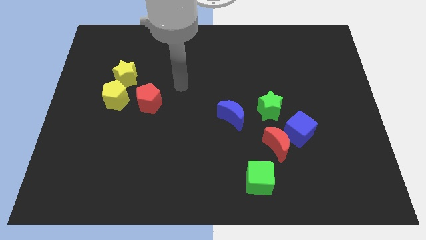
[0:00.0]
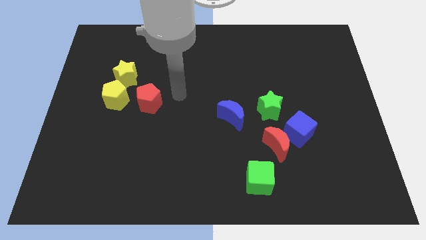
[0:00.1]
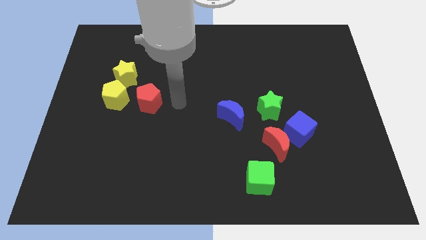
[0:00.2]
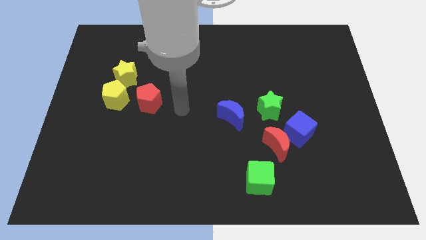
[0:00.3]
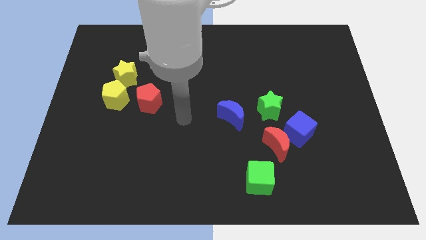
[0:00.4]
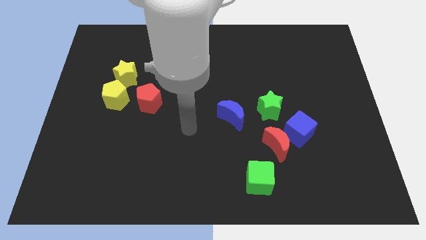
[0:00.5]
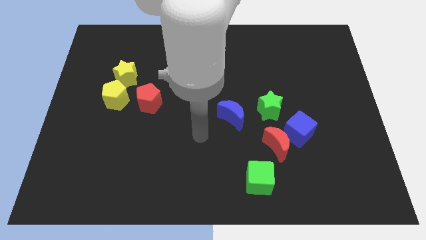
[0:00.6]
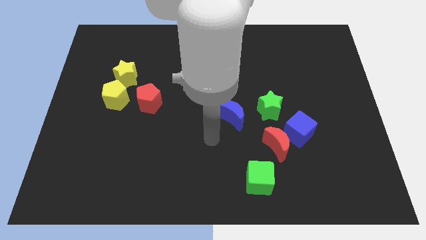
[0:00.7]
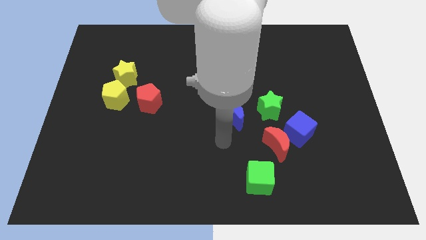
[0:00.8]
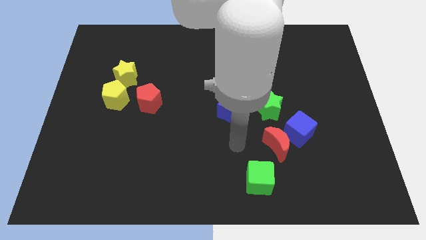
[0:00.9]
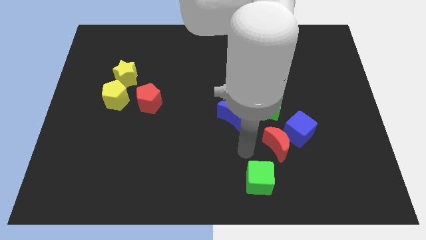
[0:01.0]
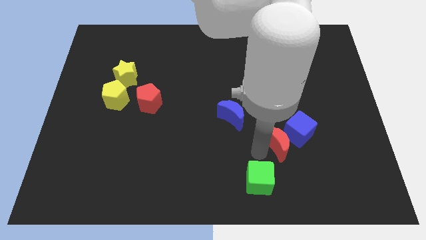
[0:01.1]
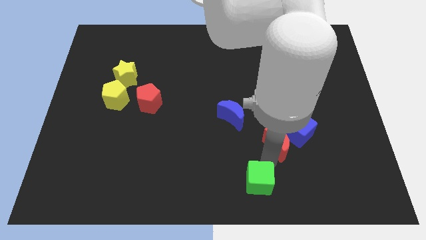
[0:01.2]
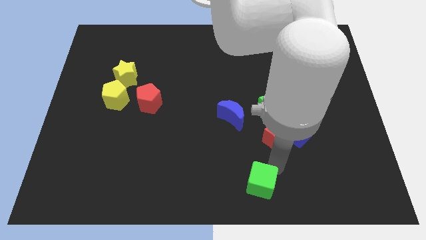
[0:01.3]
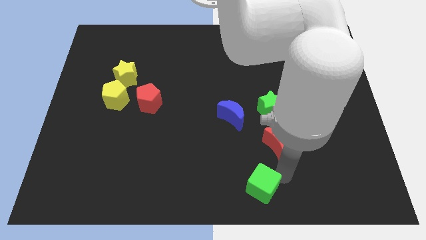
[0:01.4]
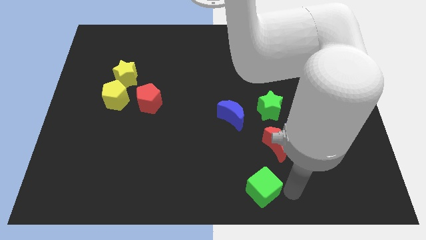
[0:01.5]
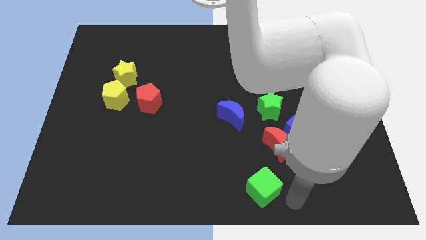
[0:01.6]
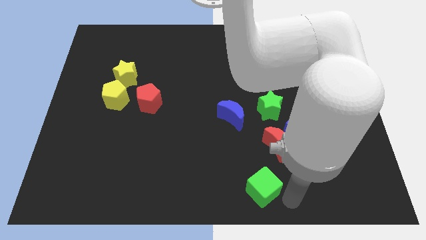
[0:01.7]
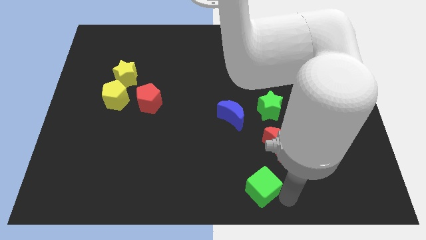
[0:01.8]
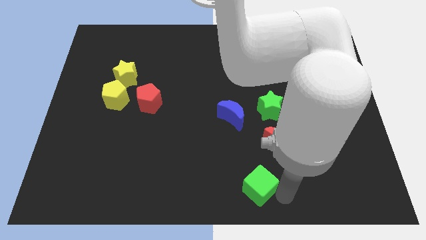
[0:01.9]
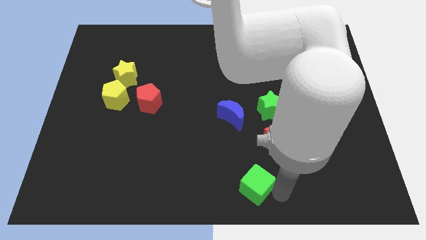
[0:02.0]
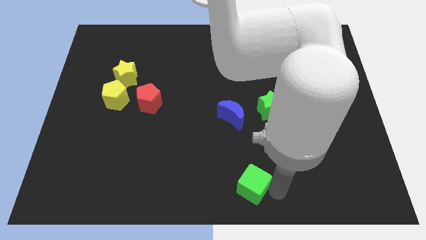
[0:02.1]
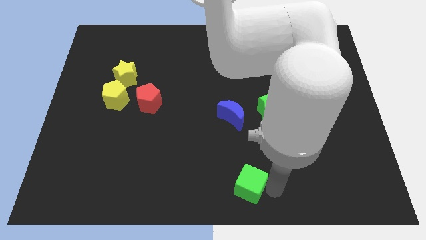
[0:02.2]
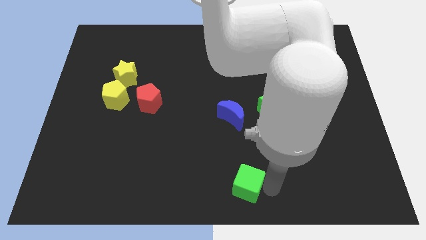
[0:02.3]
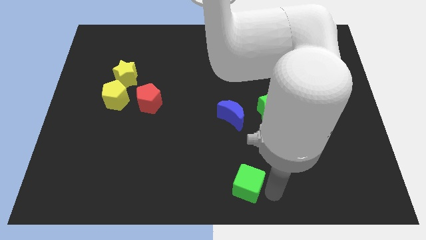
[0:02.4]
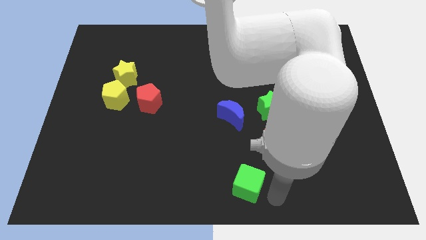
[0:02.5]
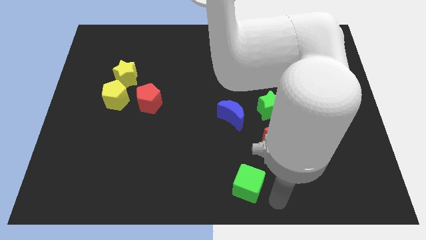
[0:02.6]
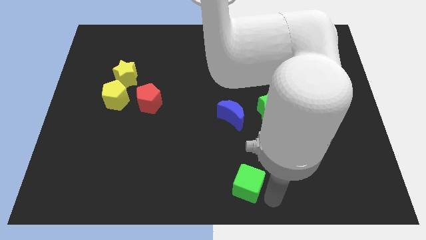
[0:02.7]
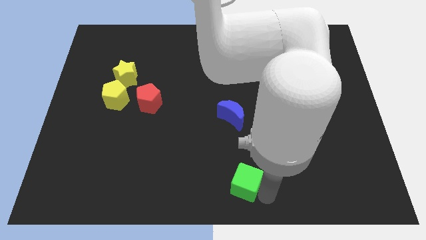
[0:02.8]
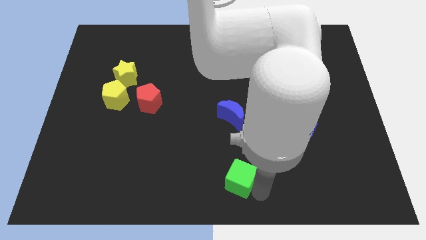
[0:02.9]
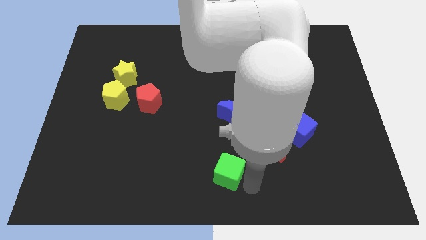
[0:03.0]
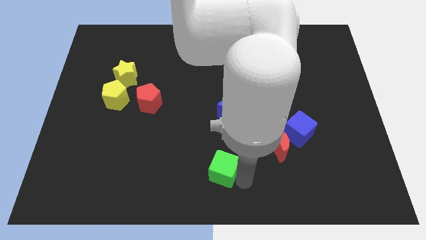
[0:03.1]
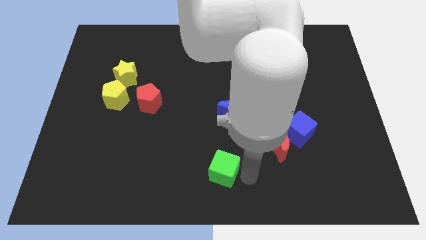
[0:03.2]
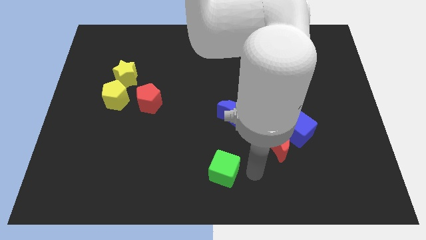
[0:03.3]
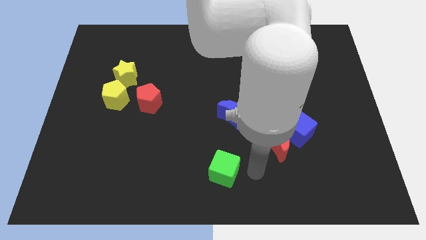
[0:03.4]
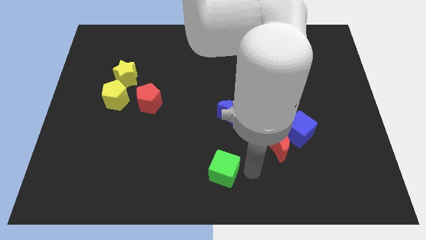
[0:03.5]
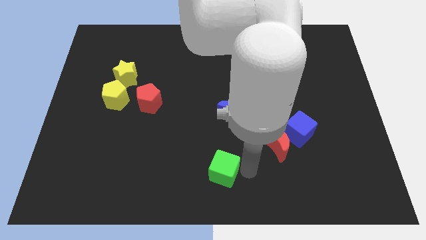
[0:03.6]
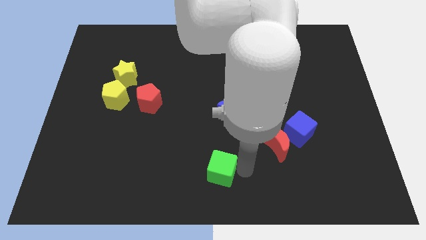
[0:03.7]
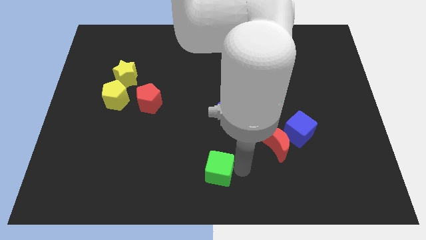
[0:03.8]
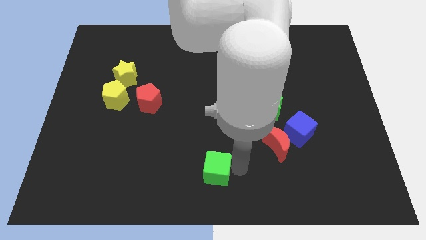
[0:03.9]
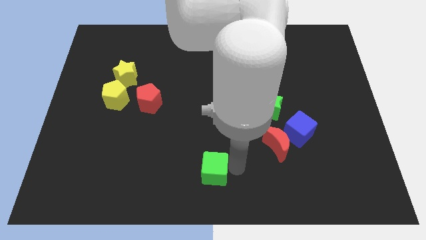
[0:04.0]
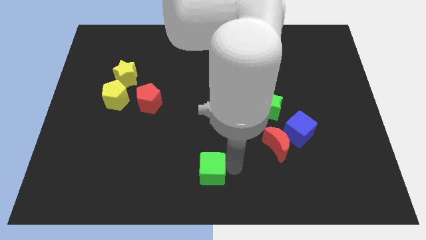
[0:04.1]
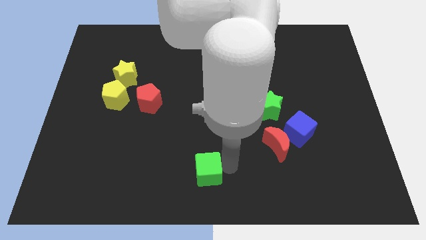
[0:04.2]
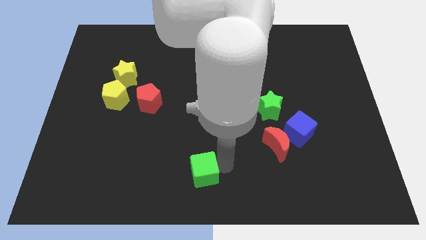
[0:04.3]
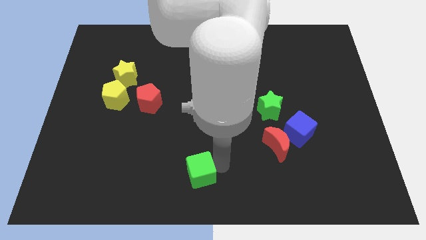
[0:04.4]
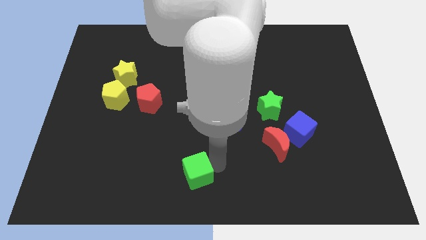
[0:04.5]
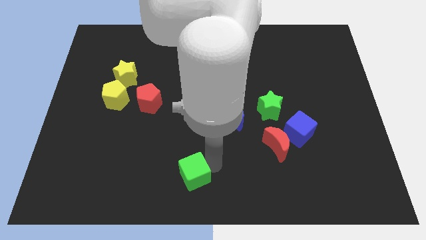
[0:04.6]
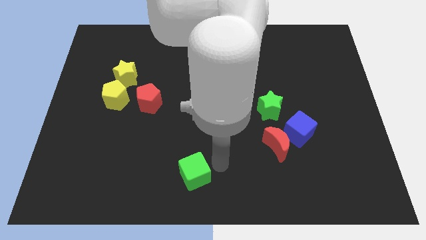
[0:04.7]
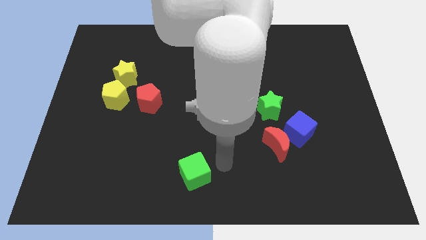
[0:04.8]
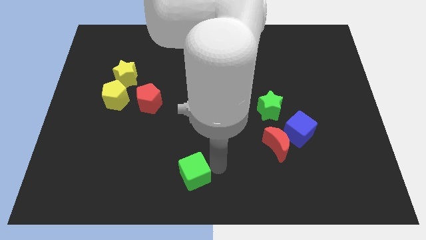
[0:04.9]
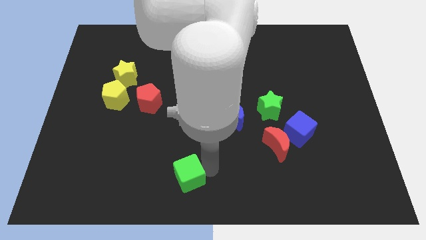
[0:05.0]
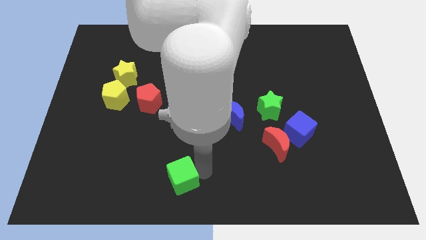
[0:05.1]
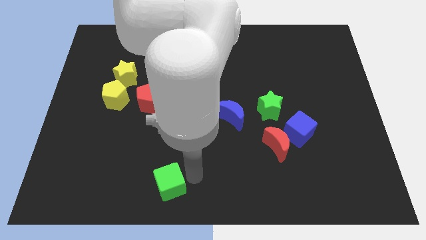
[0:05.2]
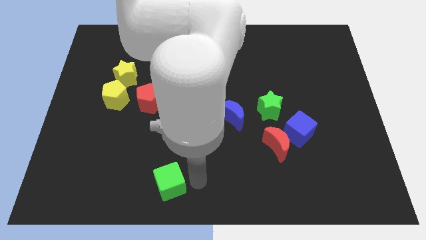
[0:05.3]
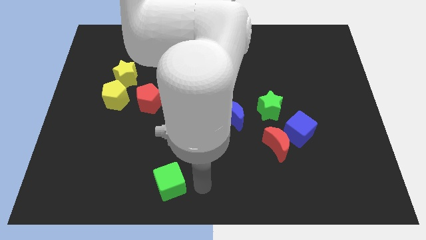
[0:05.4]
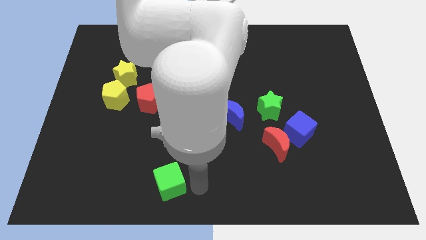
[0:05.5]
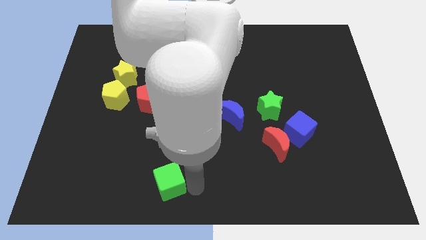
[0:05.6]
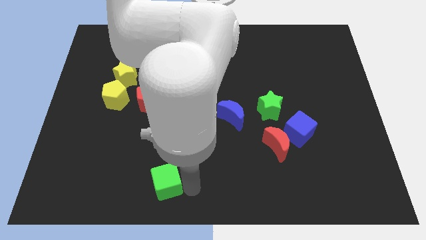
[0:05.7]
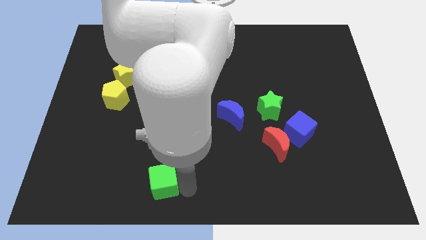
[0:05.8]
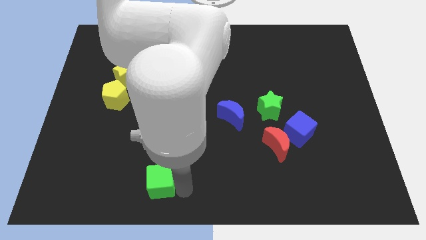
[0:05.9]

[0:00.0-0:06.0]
push the green cube left

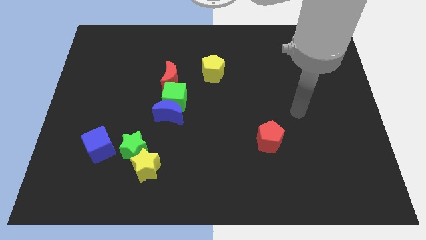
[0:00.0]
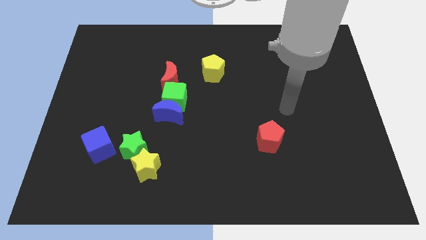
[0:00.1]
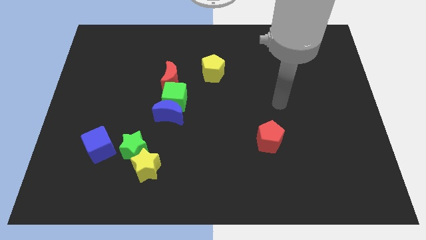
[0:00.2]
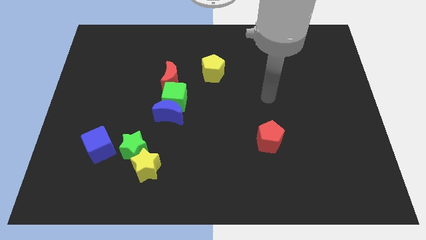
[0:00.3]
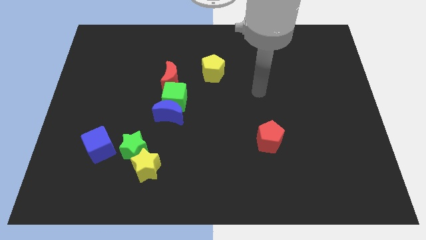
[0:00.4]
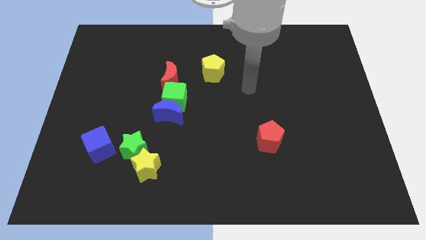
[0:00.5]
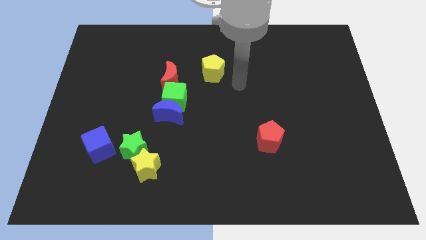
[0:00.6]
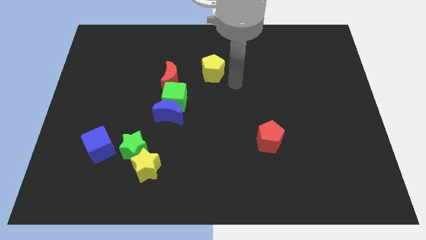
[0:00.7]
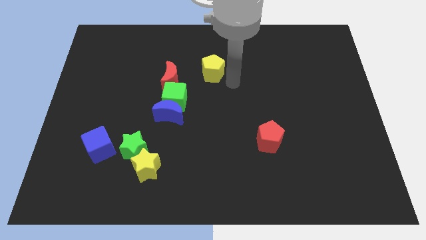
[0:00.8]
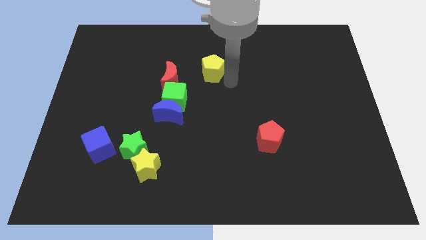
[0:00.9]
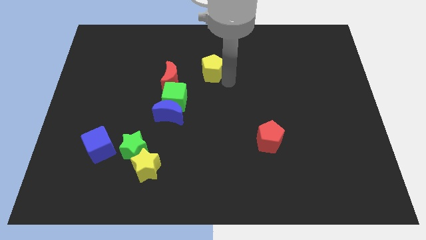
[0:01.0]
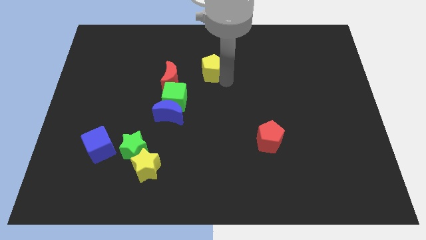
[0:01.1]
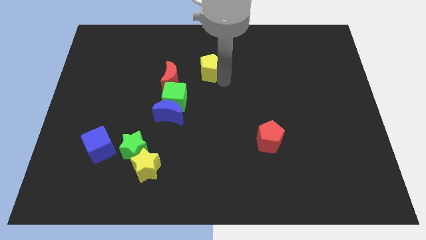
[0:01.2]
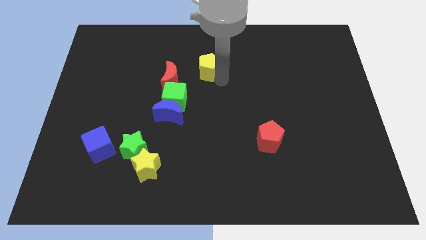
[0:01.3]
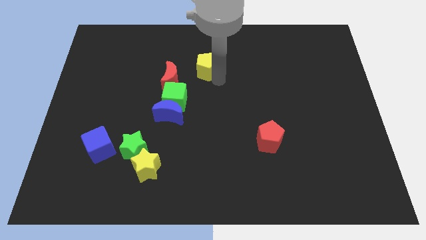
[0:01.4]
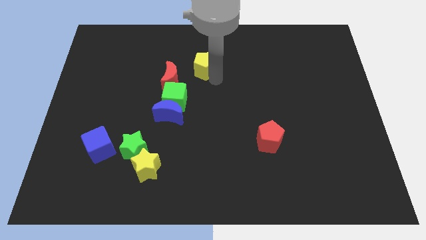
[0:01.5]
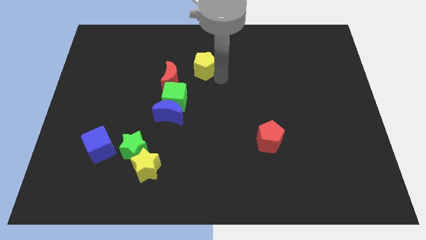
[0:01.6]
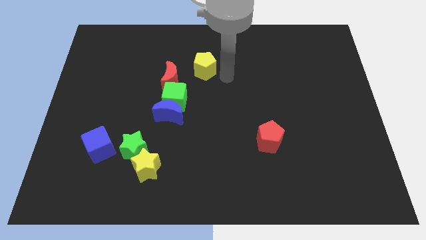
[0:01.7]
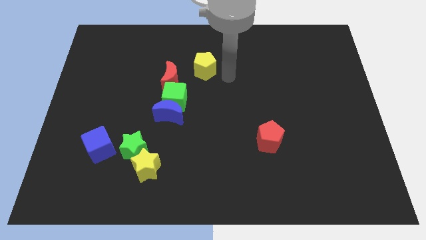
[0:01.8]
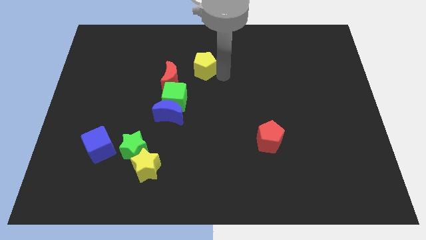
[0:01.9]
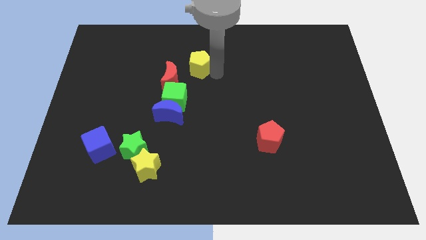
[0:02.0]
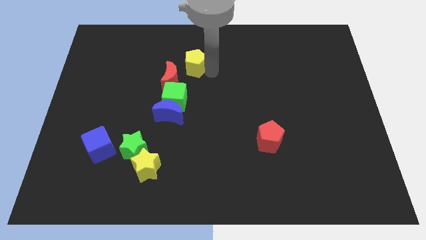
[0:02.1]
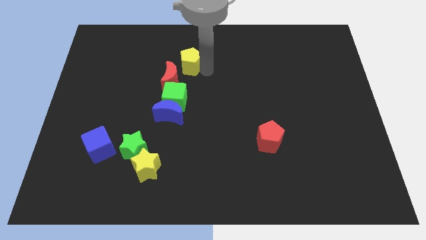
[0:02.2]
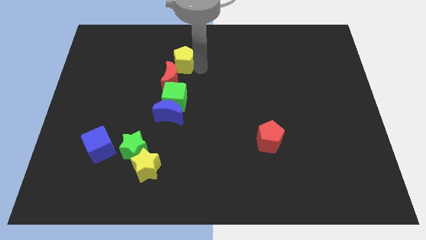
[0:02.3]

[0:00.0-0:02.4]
slide the yellow pentagon a little left
